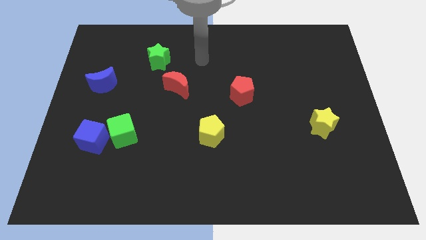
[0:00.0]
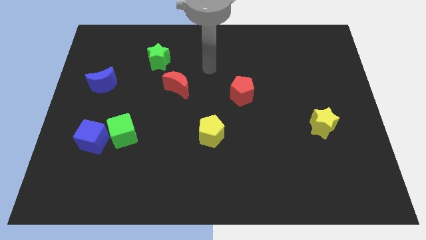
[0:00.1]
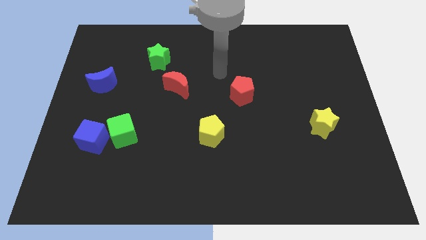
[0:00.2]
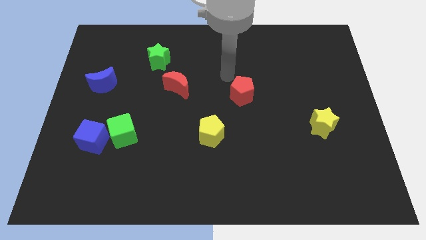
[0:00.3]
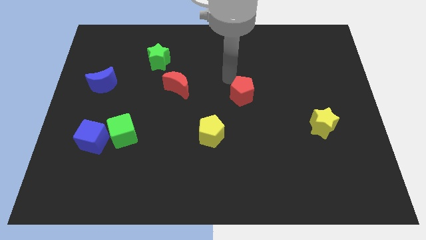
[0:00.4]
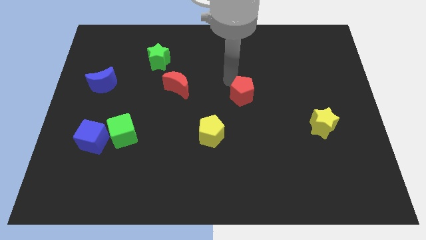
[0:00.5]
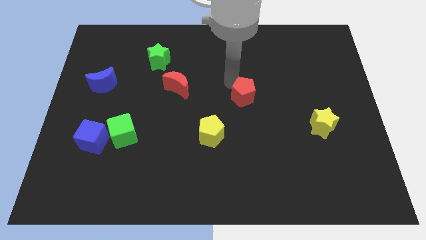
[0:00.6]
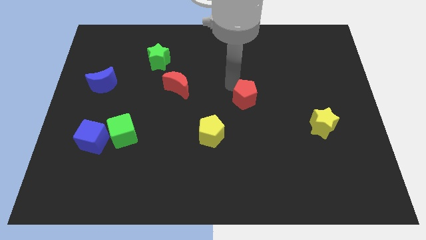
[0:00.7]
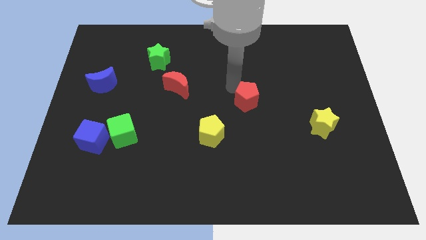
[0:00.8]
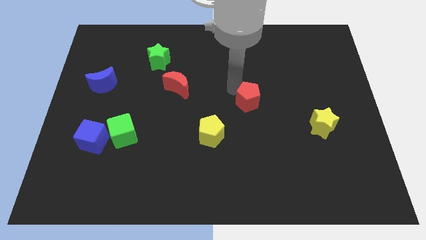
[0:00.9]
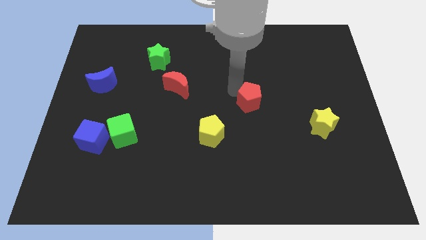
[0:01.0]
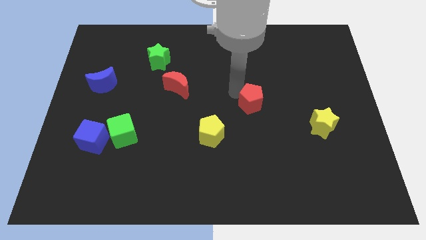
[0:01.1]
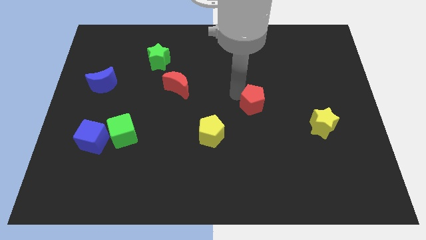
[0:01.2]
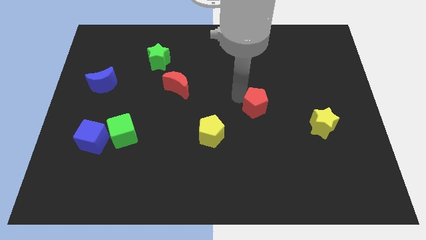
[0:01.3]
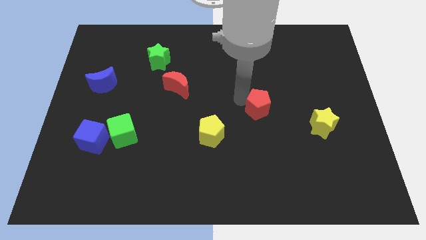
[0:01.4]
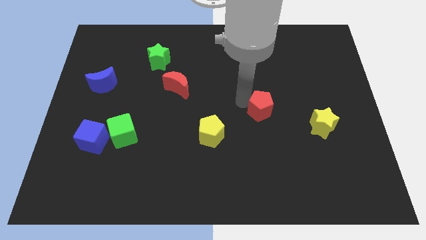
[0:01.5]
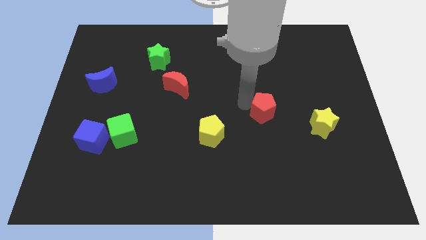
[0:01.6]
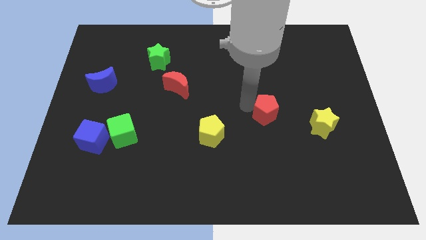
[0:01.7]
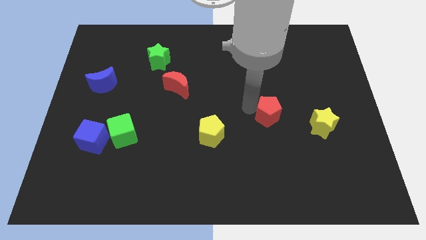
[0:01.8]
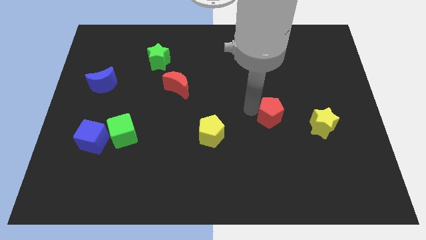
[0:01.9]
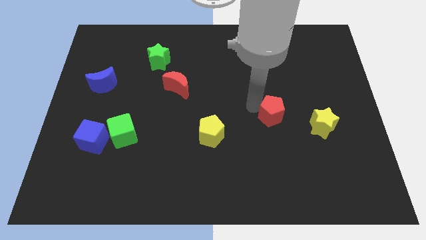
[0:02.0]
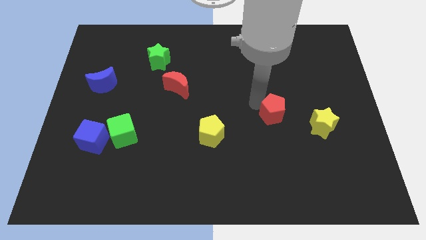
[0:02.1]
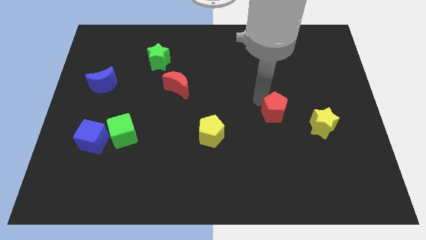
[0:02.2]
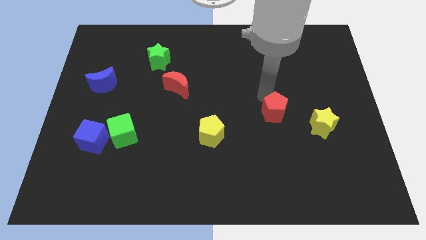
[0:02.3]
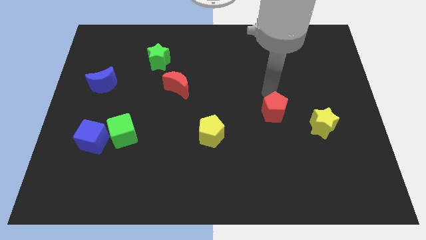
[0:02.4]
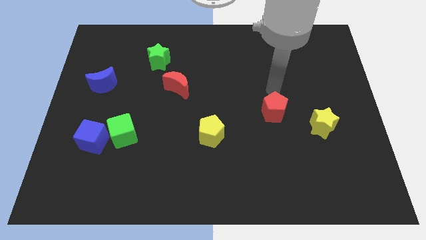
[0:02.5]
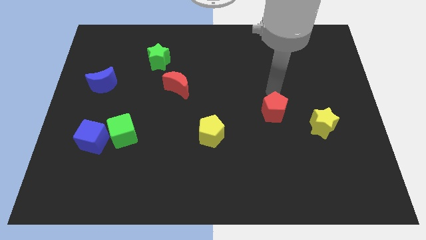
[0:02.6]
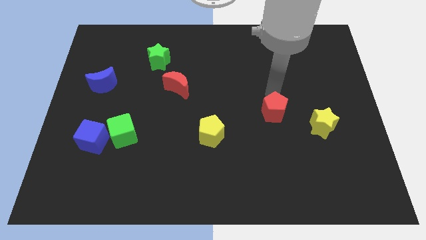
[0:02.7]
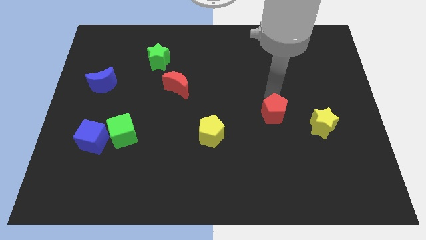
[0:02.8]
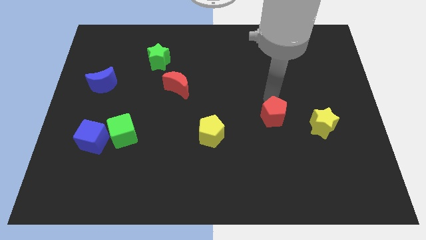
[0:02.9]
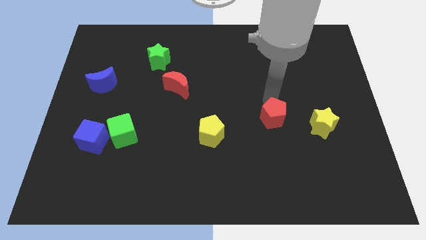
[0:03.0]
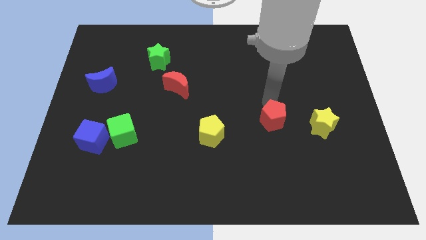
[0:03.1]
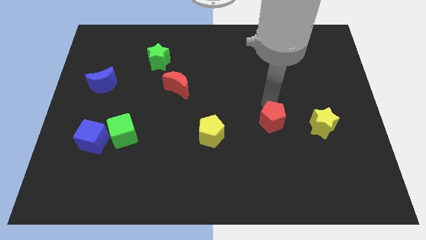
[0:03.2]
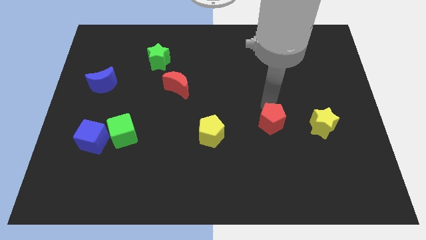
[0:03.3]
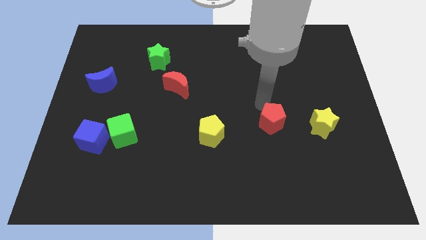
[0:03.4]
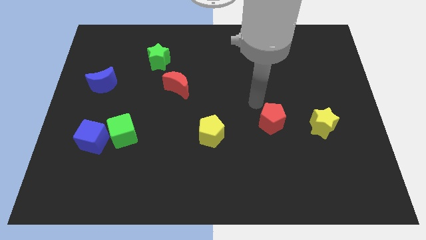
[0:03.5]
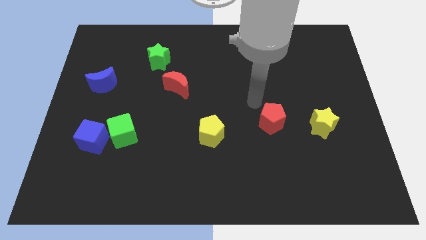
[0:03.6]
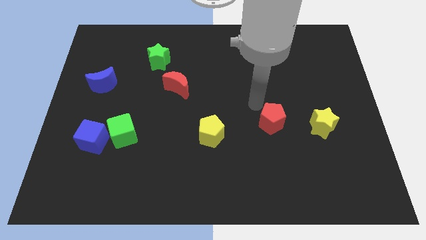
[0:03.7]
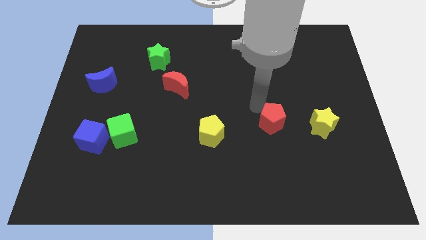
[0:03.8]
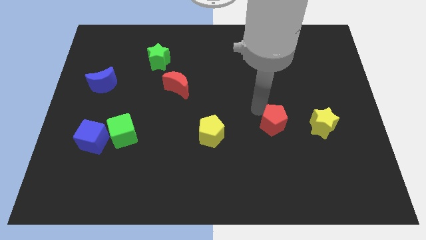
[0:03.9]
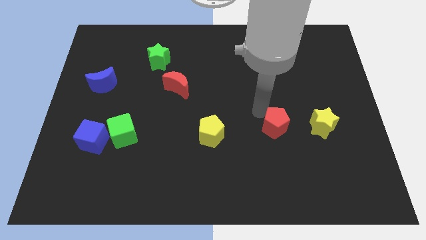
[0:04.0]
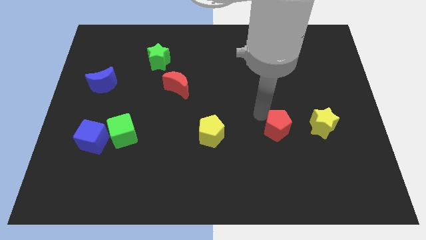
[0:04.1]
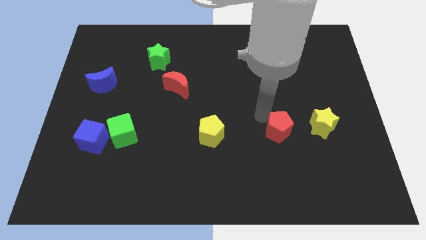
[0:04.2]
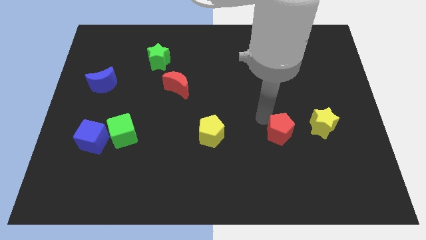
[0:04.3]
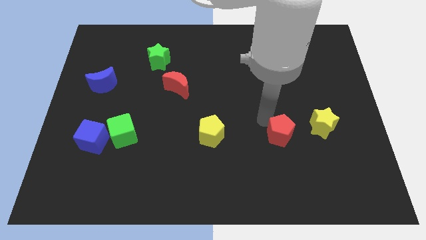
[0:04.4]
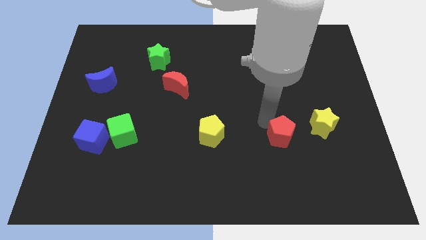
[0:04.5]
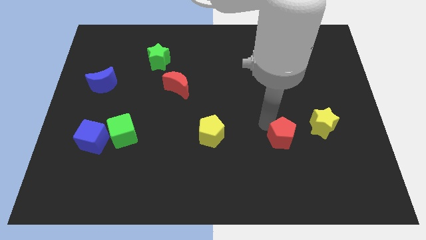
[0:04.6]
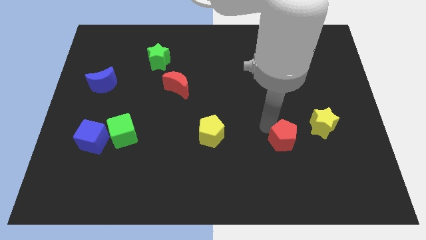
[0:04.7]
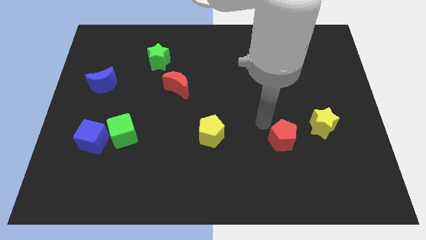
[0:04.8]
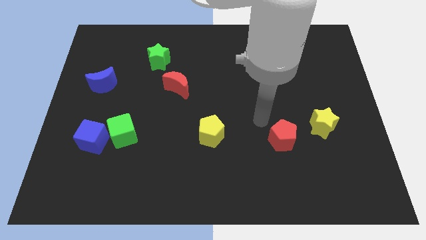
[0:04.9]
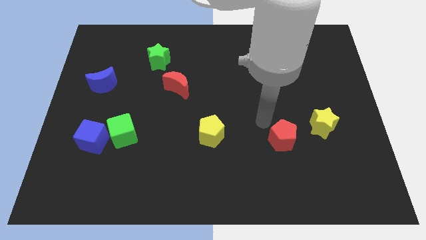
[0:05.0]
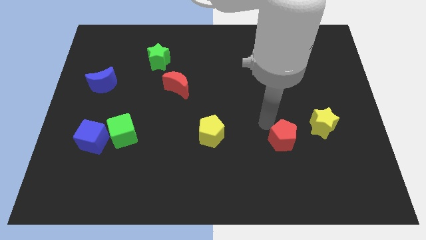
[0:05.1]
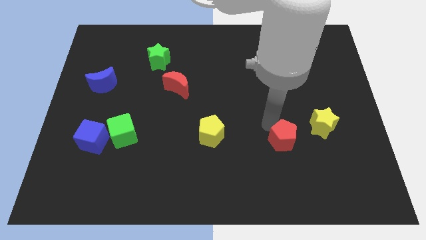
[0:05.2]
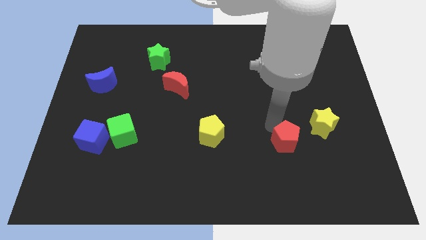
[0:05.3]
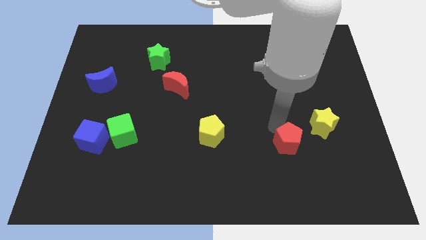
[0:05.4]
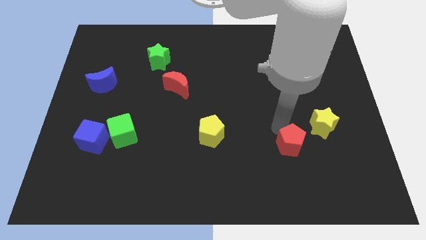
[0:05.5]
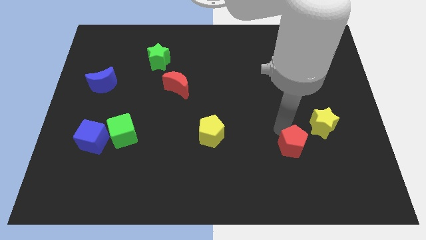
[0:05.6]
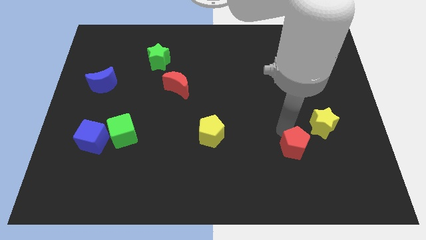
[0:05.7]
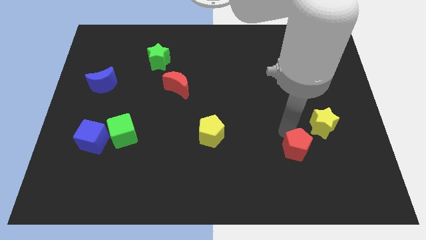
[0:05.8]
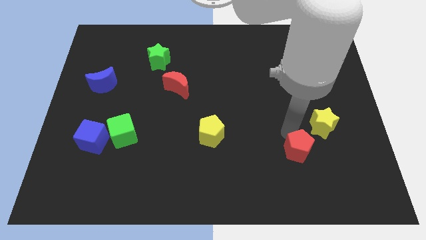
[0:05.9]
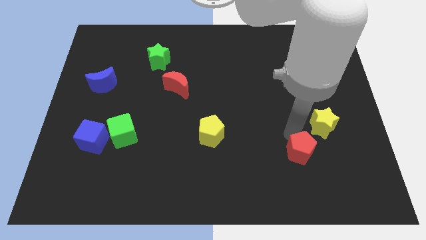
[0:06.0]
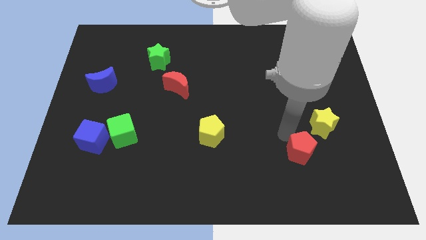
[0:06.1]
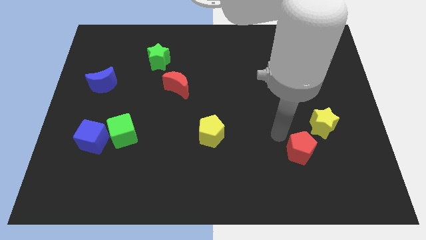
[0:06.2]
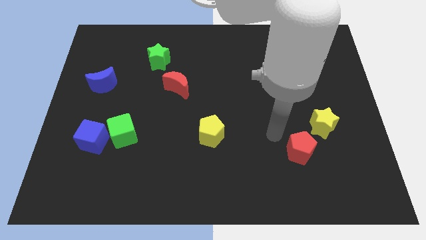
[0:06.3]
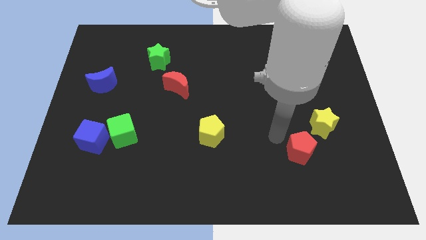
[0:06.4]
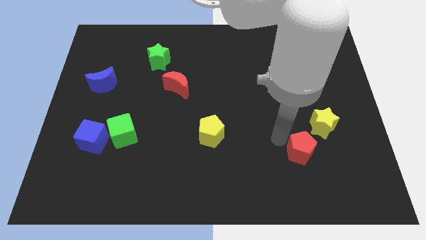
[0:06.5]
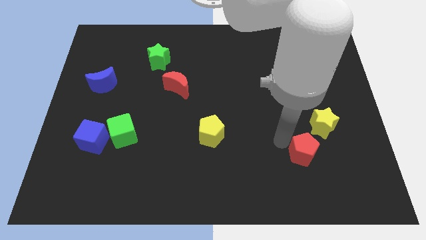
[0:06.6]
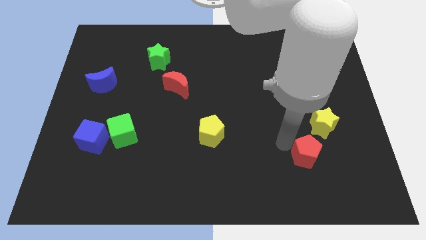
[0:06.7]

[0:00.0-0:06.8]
push the red pentagon to the bottom of the yellow star

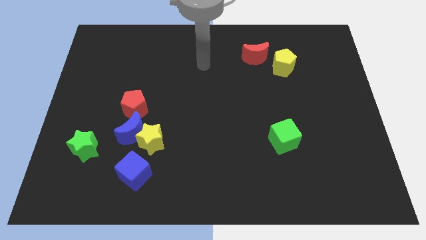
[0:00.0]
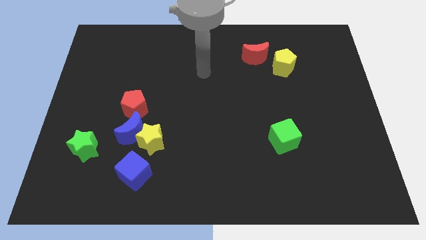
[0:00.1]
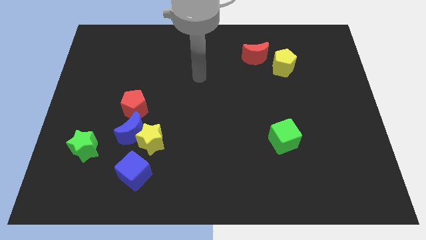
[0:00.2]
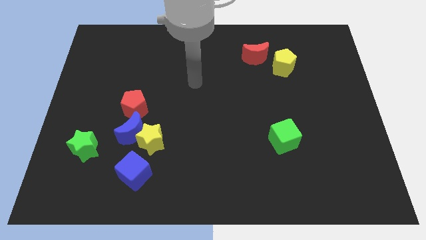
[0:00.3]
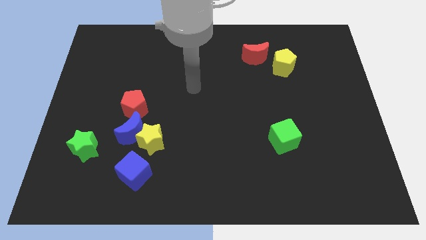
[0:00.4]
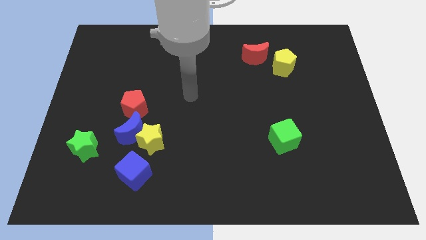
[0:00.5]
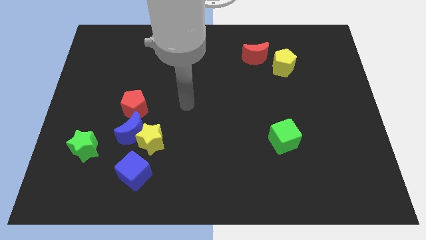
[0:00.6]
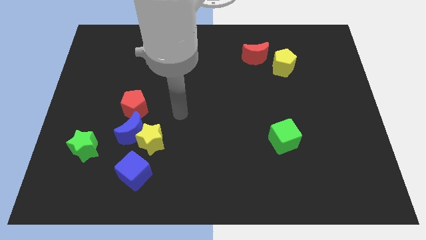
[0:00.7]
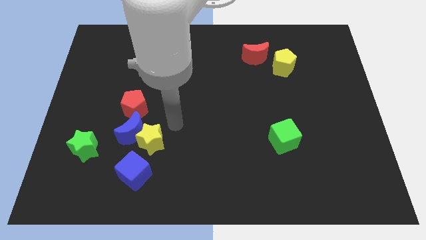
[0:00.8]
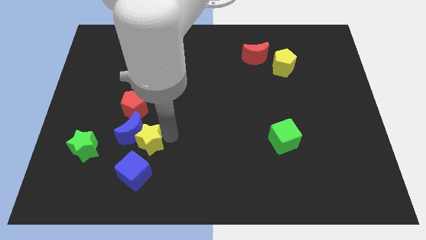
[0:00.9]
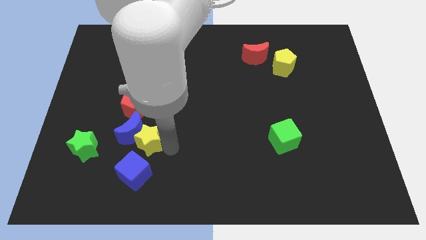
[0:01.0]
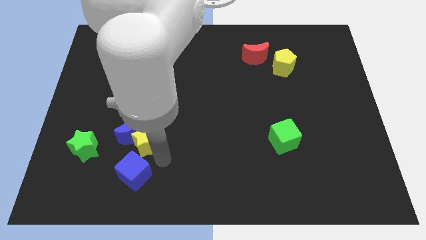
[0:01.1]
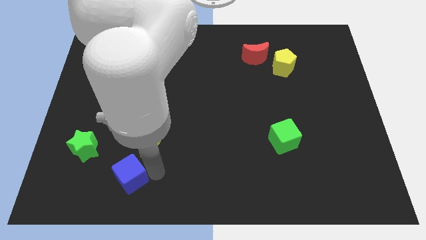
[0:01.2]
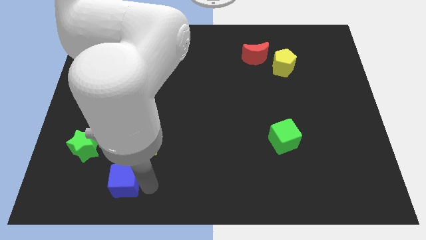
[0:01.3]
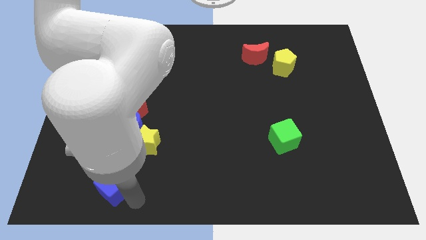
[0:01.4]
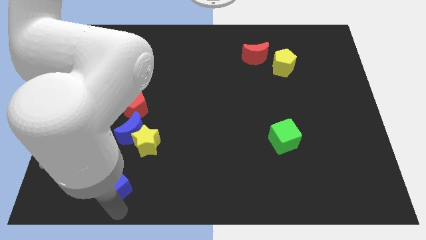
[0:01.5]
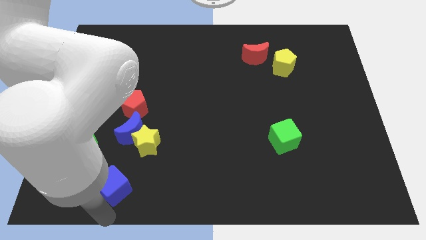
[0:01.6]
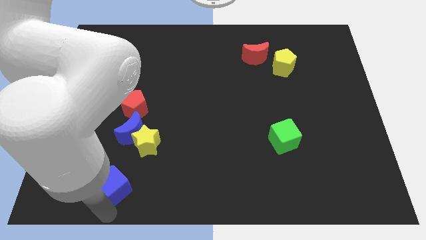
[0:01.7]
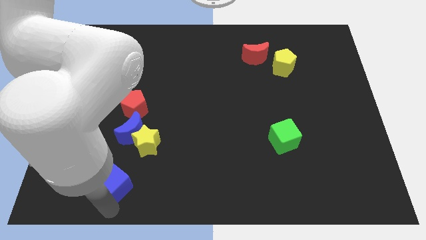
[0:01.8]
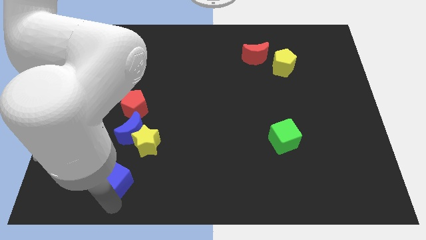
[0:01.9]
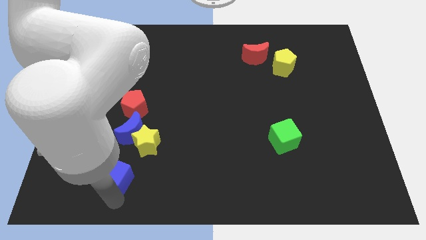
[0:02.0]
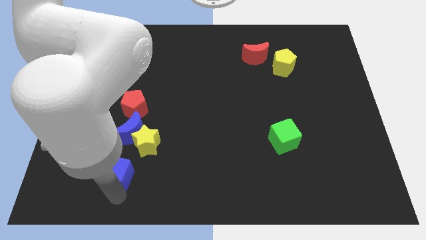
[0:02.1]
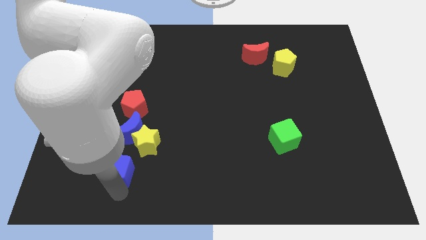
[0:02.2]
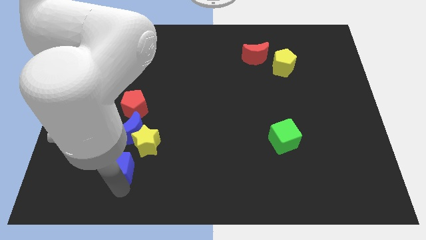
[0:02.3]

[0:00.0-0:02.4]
put the blue cube below the red pentagon
